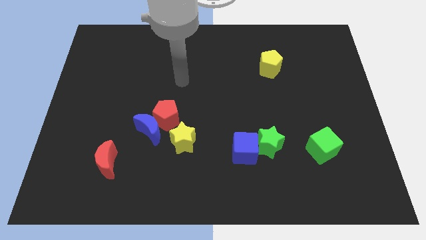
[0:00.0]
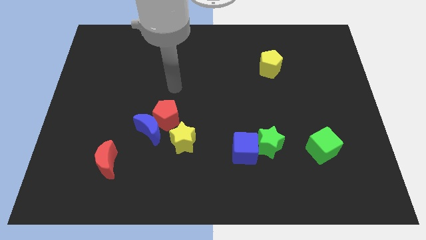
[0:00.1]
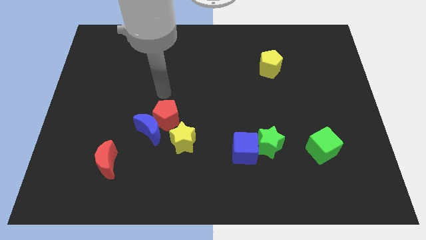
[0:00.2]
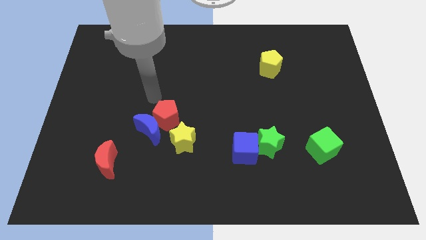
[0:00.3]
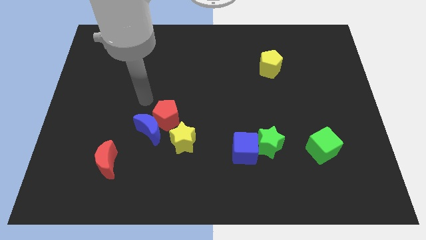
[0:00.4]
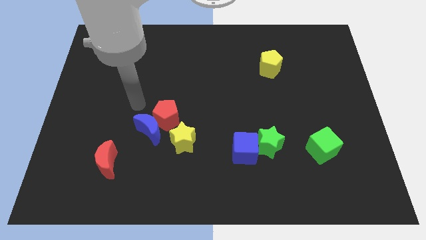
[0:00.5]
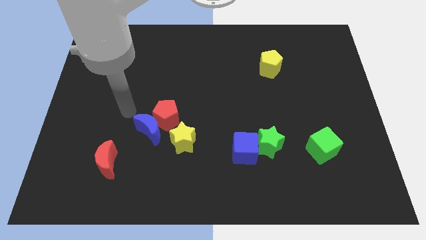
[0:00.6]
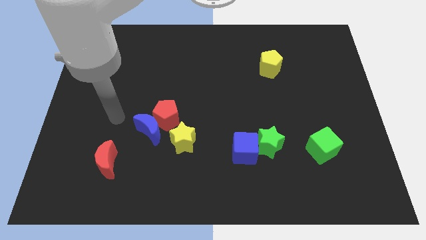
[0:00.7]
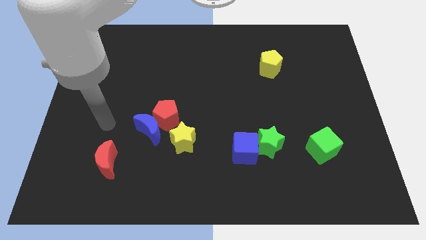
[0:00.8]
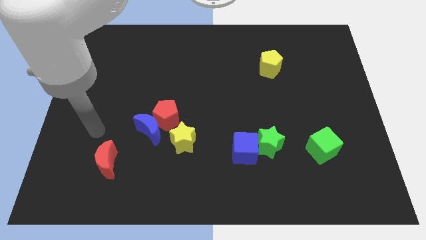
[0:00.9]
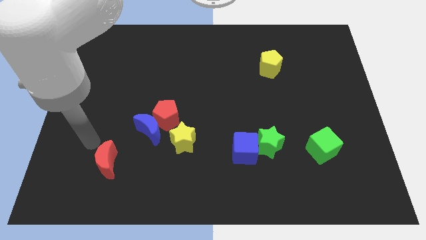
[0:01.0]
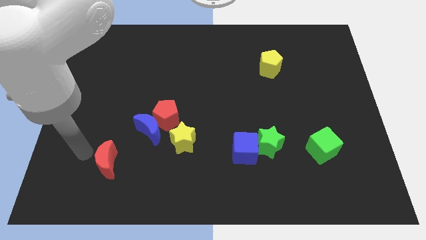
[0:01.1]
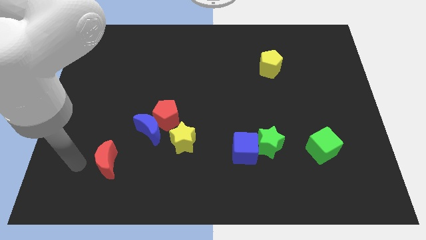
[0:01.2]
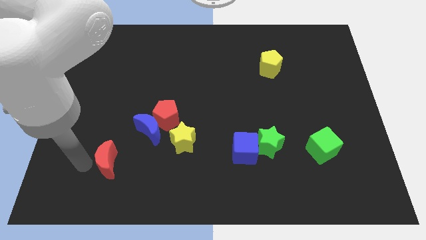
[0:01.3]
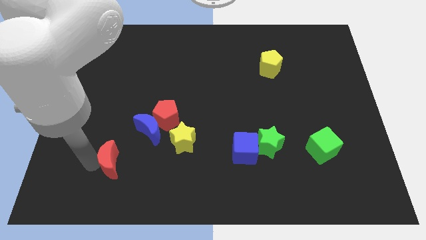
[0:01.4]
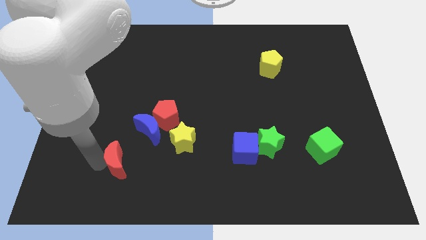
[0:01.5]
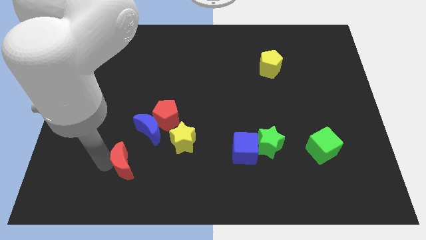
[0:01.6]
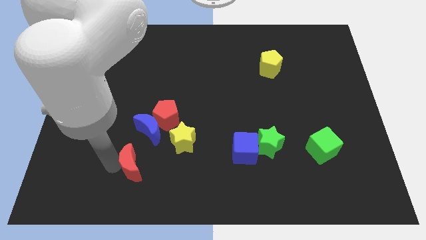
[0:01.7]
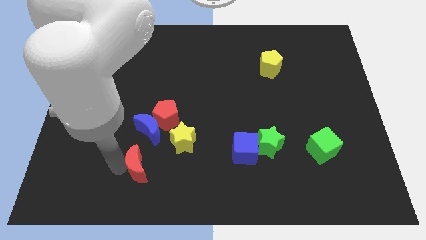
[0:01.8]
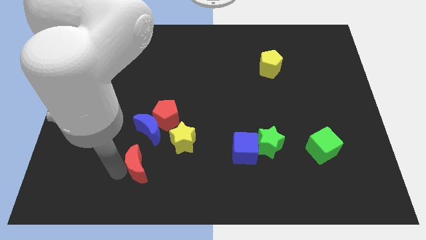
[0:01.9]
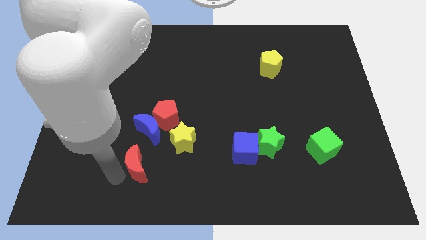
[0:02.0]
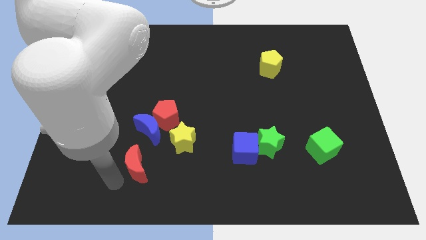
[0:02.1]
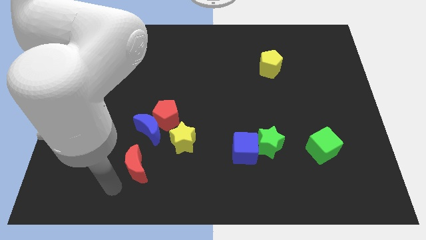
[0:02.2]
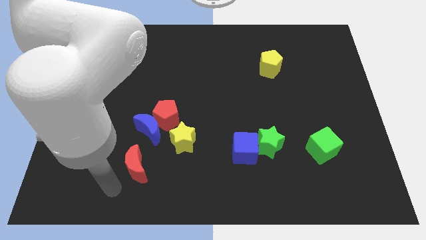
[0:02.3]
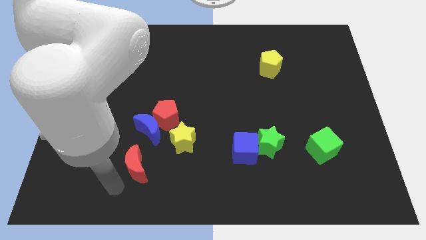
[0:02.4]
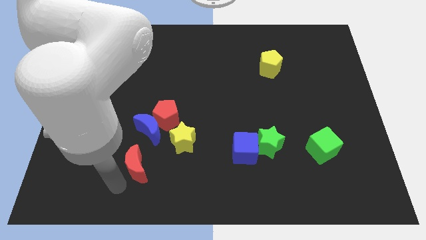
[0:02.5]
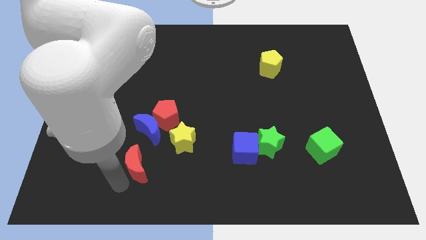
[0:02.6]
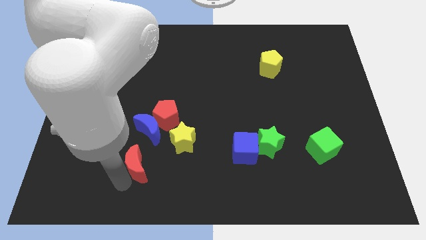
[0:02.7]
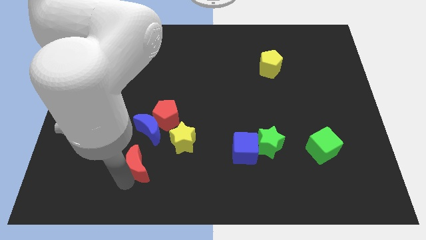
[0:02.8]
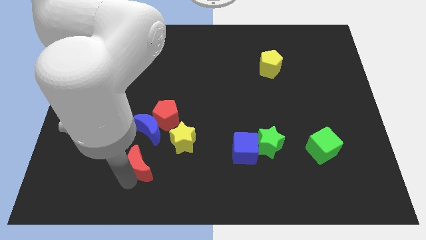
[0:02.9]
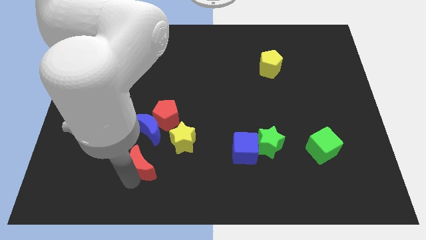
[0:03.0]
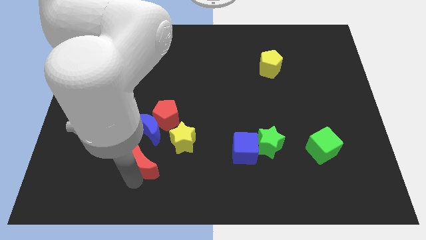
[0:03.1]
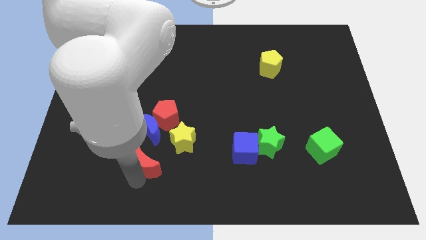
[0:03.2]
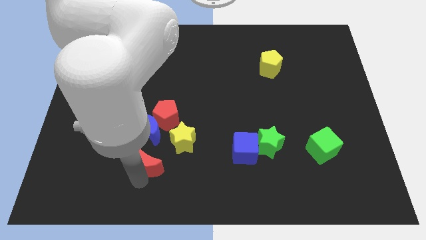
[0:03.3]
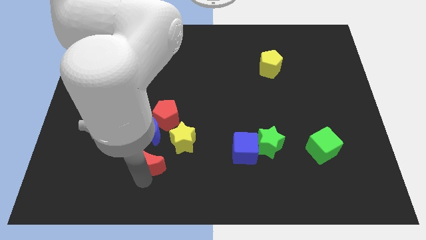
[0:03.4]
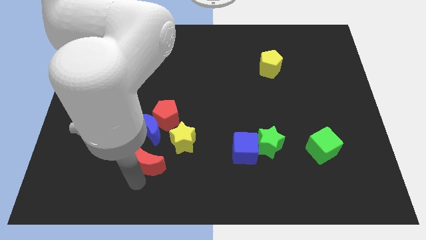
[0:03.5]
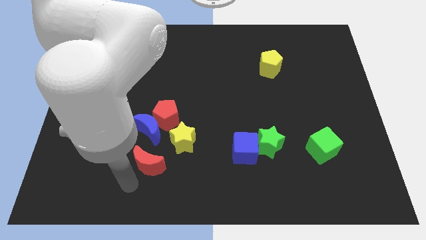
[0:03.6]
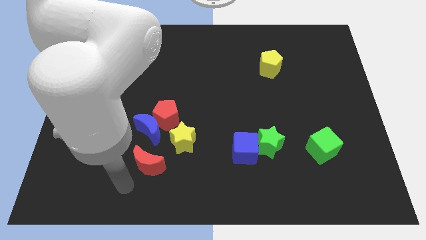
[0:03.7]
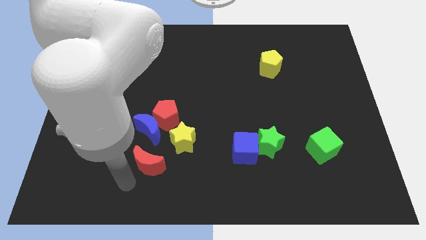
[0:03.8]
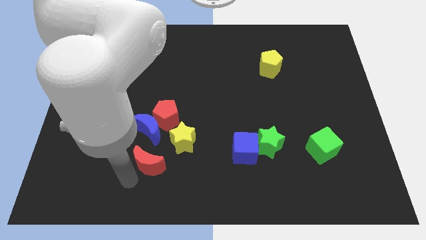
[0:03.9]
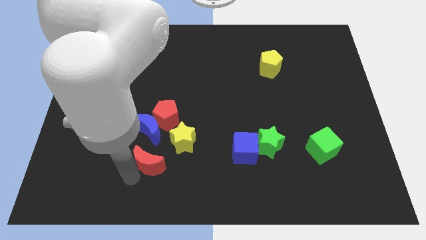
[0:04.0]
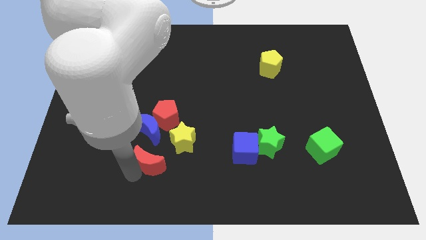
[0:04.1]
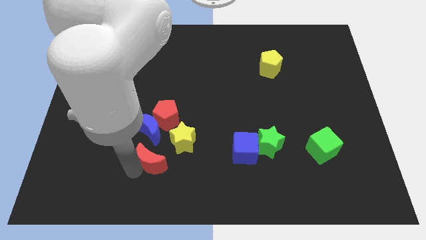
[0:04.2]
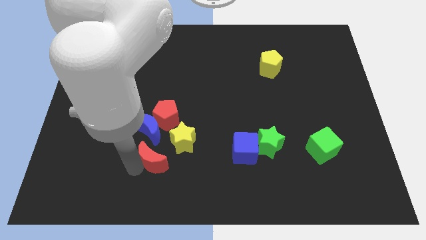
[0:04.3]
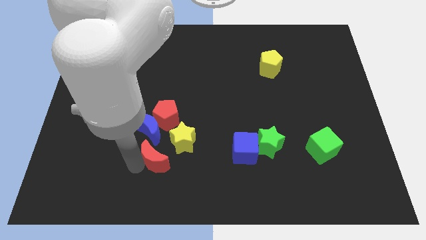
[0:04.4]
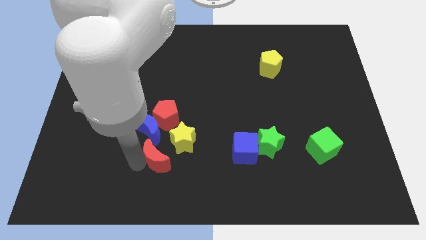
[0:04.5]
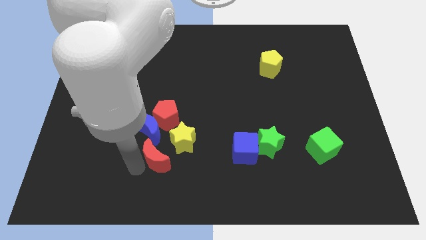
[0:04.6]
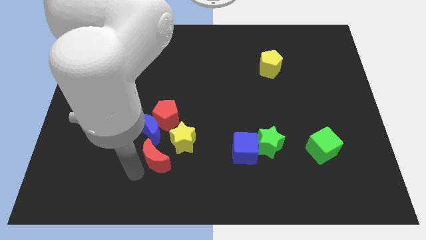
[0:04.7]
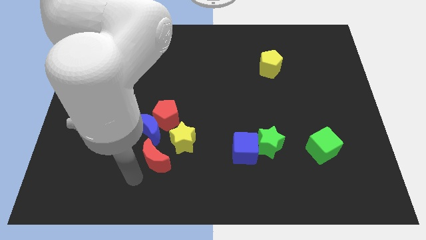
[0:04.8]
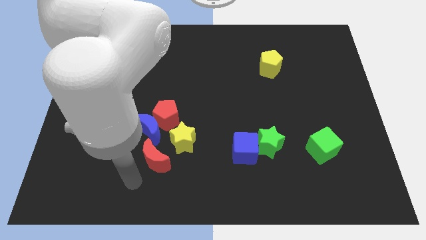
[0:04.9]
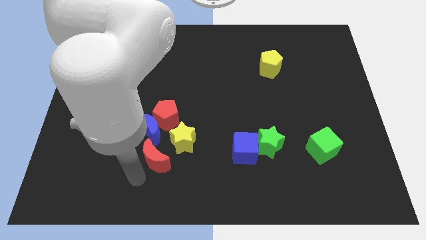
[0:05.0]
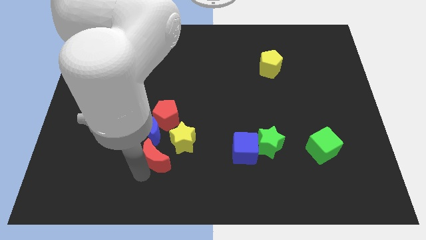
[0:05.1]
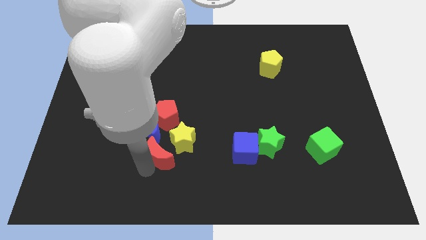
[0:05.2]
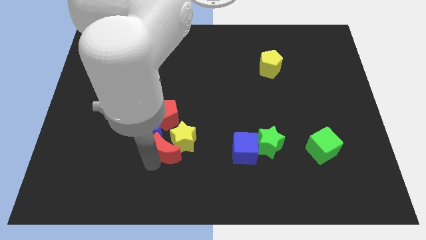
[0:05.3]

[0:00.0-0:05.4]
slide the red moon next to the yellow star

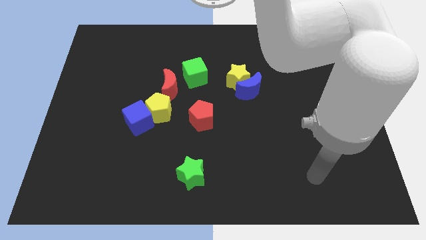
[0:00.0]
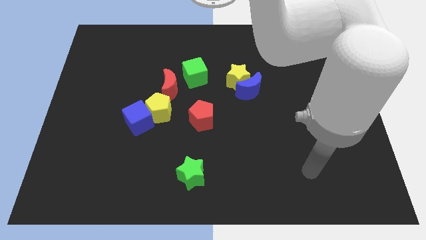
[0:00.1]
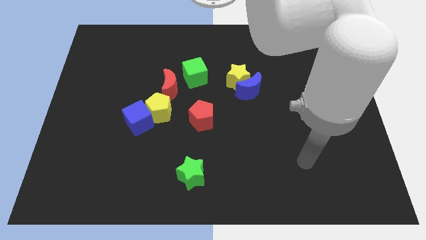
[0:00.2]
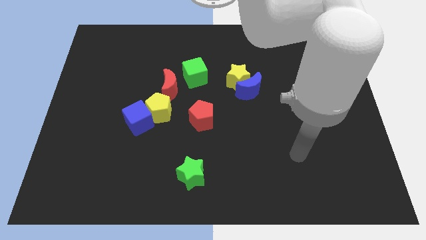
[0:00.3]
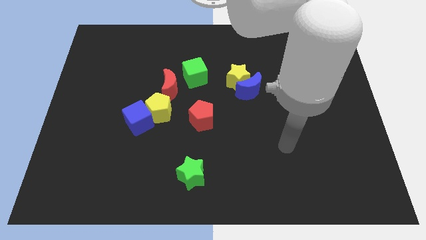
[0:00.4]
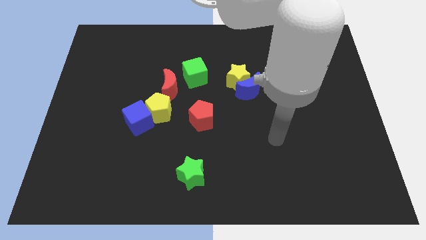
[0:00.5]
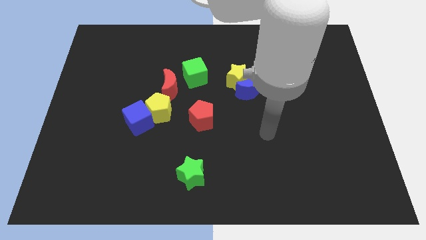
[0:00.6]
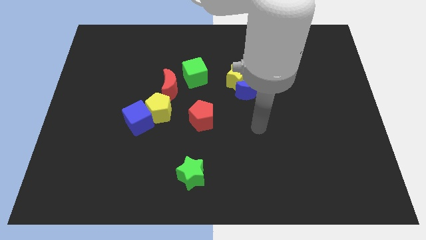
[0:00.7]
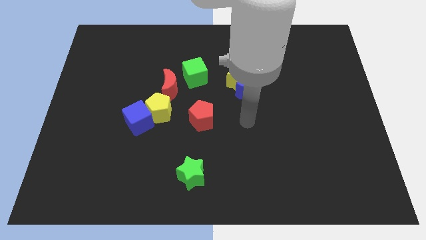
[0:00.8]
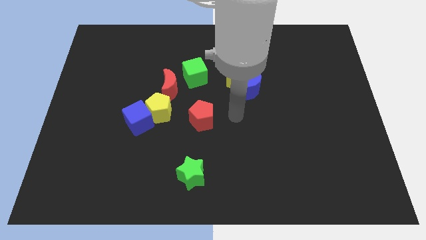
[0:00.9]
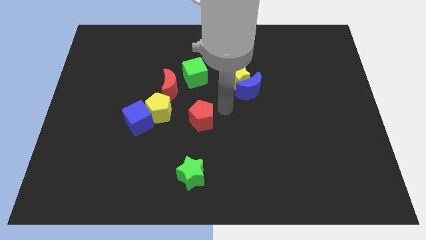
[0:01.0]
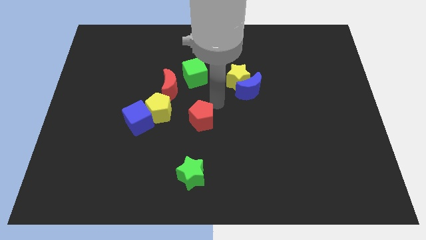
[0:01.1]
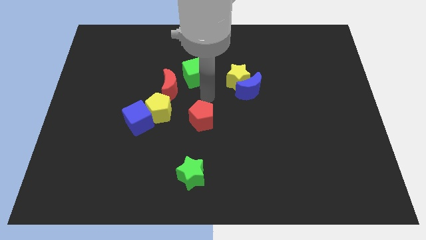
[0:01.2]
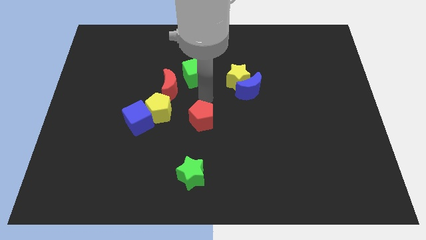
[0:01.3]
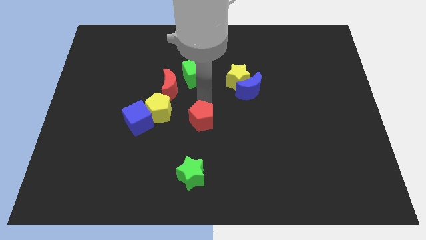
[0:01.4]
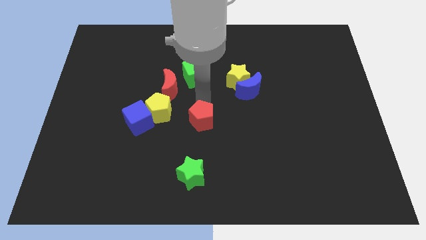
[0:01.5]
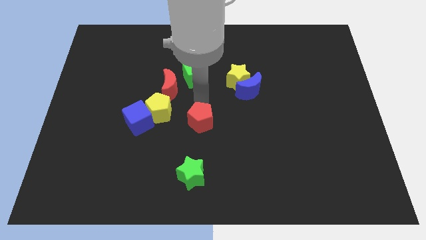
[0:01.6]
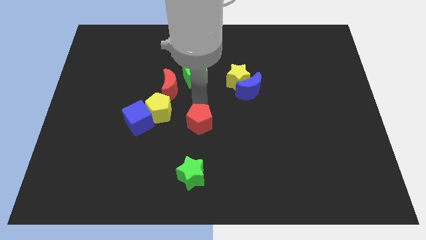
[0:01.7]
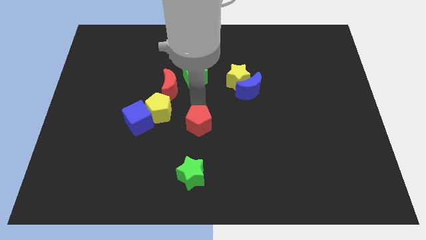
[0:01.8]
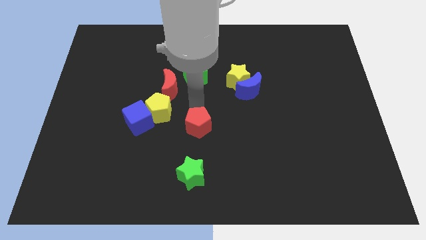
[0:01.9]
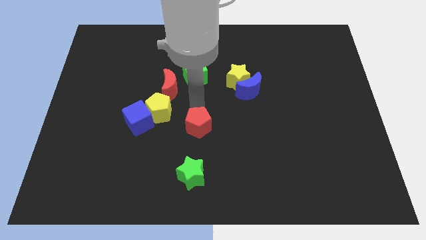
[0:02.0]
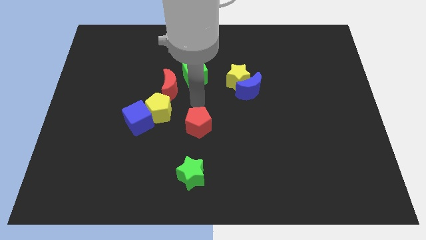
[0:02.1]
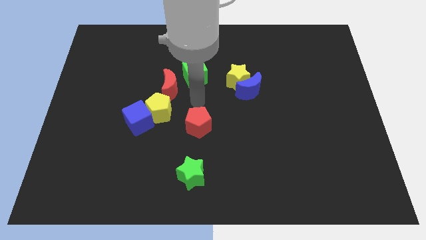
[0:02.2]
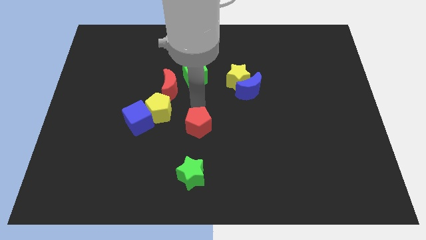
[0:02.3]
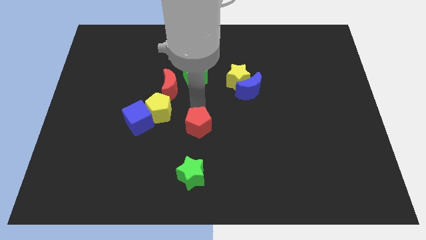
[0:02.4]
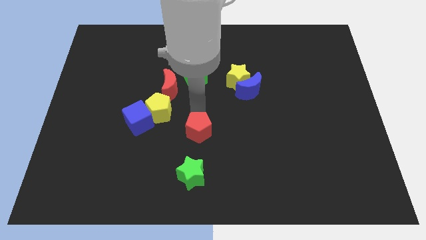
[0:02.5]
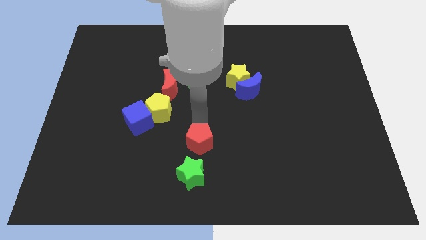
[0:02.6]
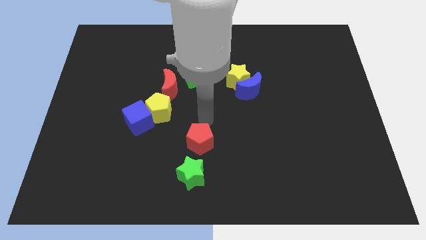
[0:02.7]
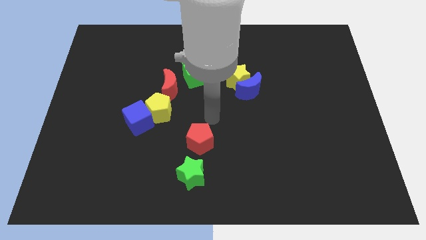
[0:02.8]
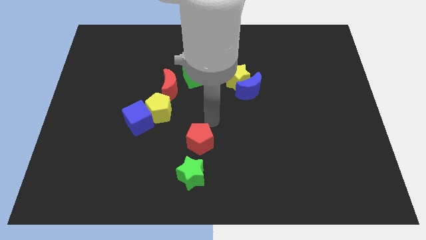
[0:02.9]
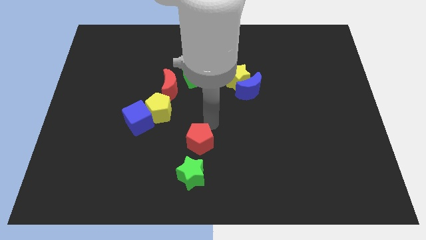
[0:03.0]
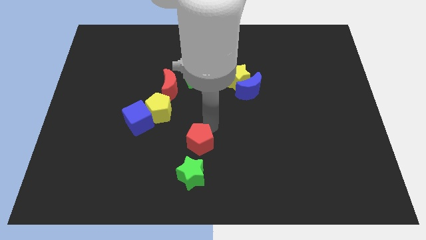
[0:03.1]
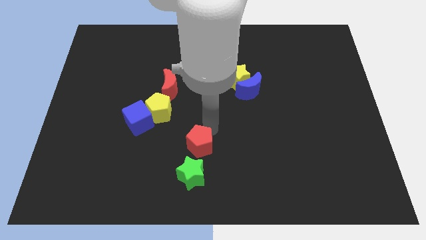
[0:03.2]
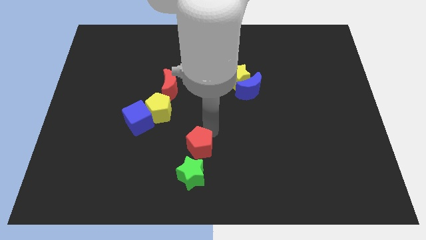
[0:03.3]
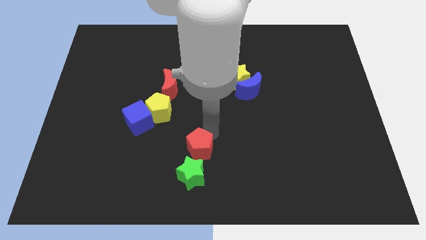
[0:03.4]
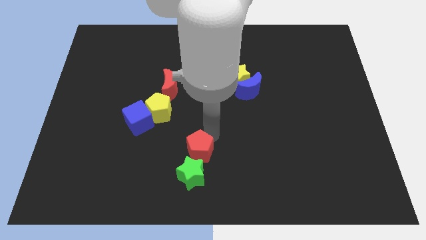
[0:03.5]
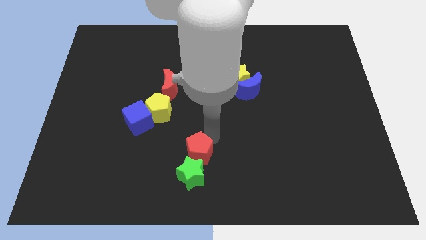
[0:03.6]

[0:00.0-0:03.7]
slide the red pentagon towards the green star
